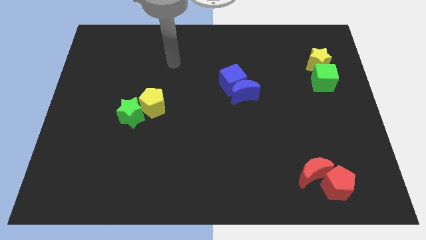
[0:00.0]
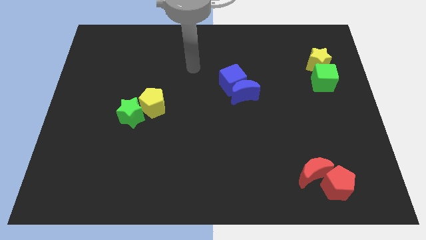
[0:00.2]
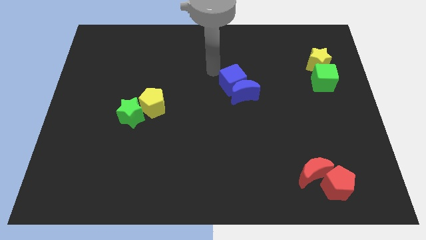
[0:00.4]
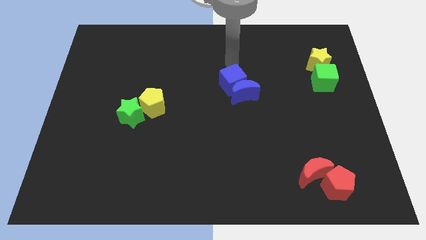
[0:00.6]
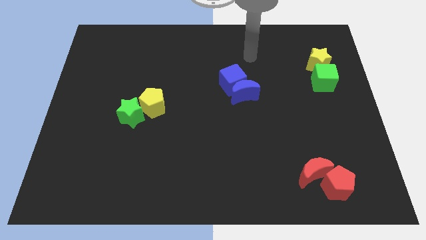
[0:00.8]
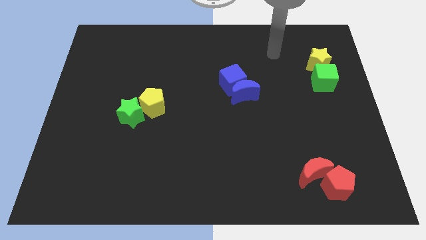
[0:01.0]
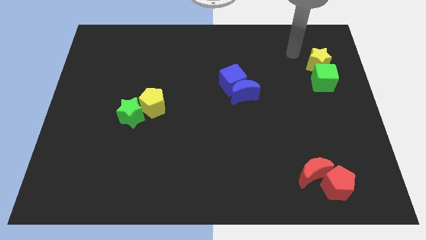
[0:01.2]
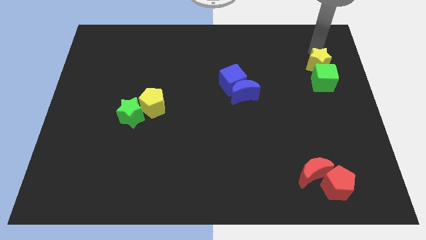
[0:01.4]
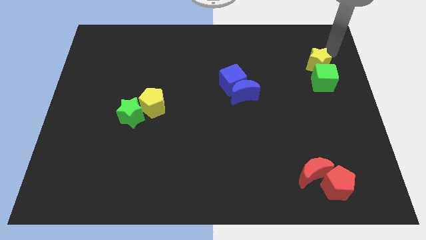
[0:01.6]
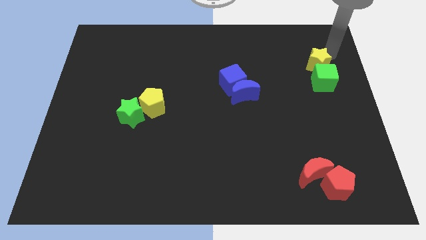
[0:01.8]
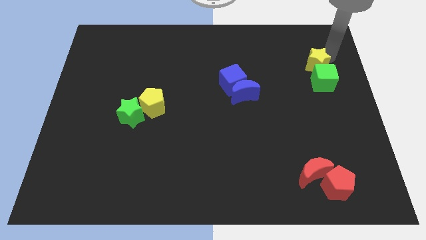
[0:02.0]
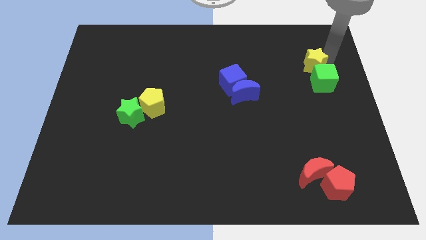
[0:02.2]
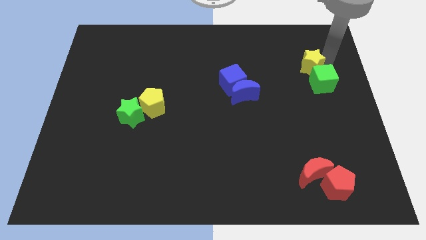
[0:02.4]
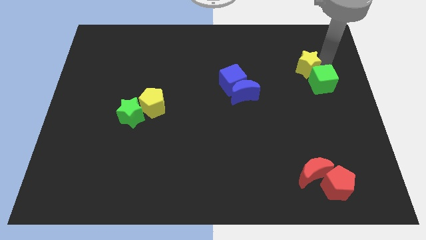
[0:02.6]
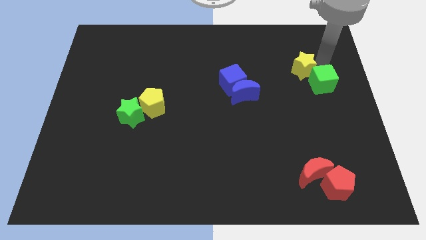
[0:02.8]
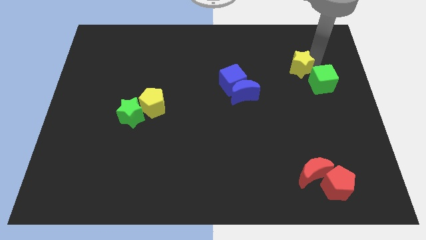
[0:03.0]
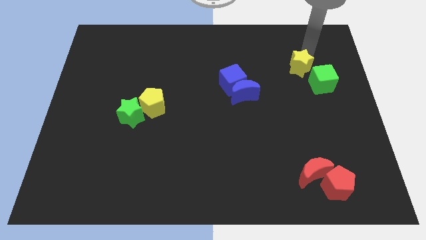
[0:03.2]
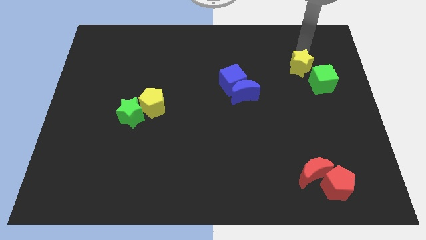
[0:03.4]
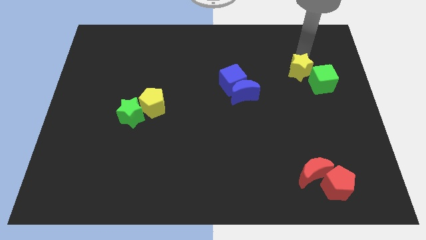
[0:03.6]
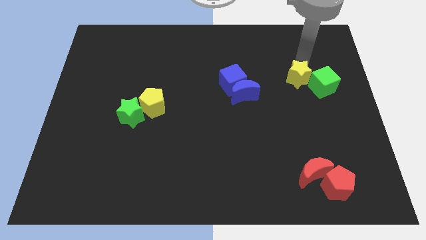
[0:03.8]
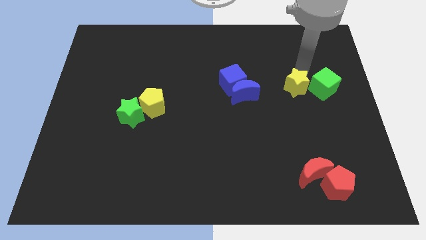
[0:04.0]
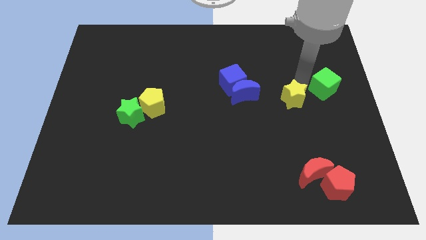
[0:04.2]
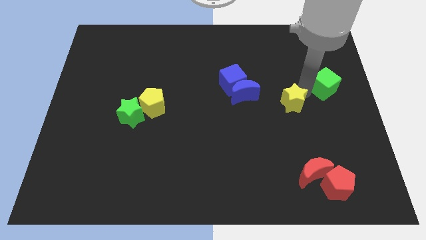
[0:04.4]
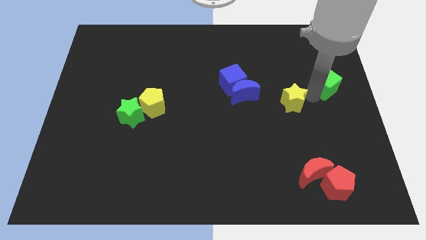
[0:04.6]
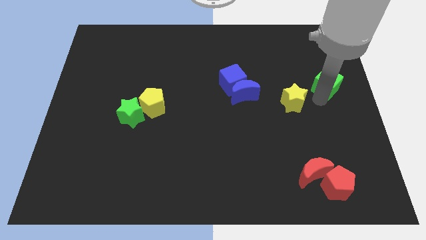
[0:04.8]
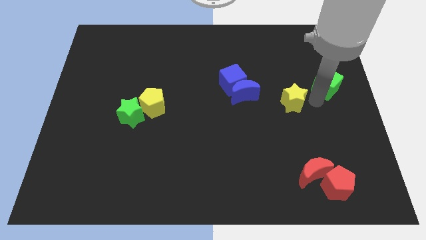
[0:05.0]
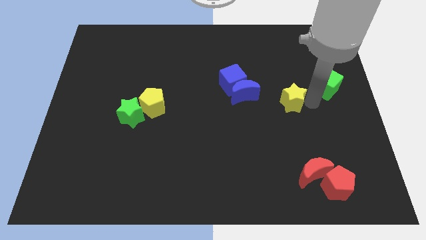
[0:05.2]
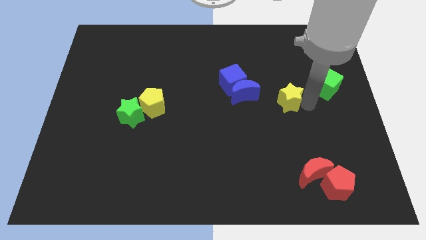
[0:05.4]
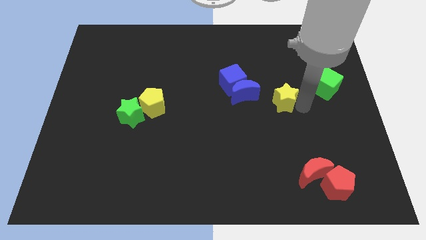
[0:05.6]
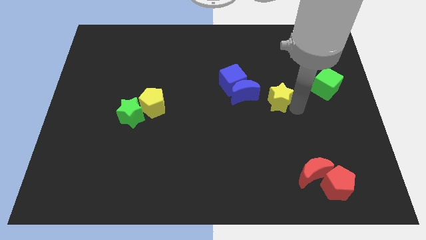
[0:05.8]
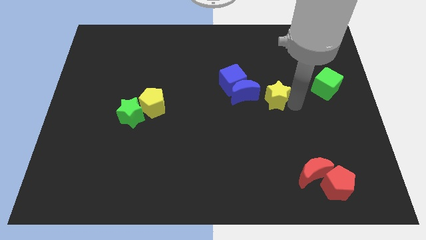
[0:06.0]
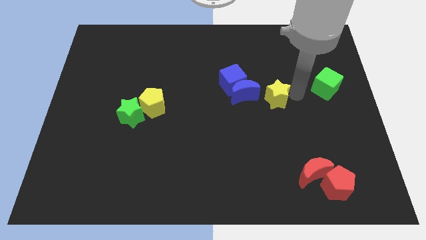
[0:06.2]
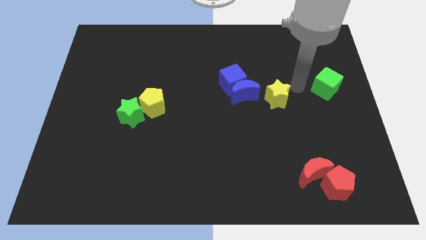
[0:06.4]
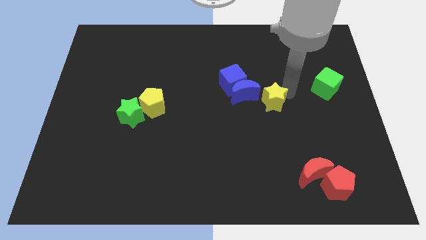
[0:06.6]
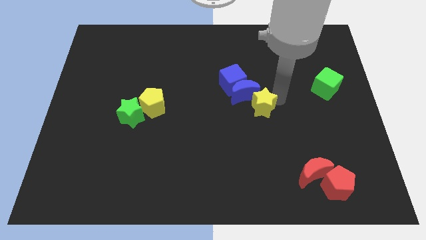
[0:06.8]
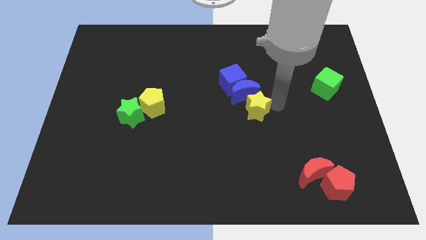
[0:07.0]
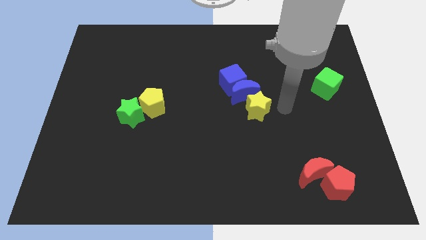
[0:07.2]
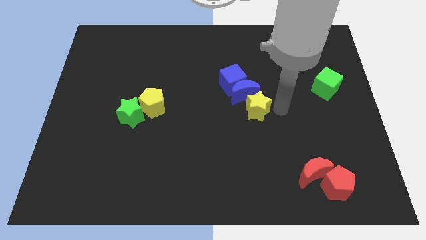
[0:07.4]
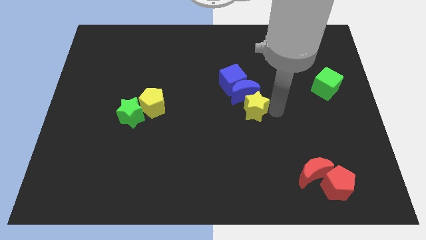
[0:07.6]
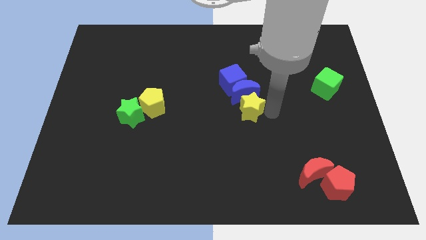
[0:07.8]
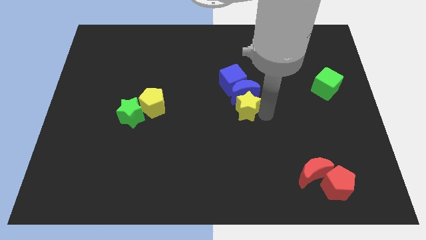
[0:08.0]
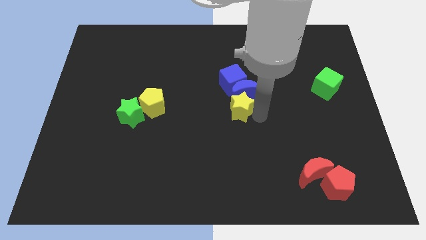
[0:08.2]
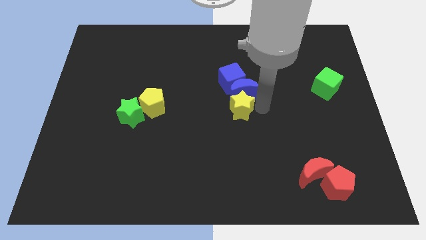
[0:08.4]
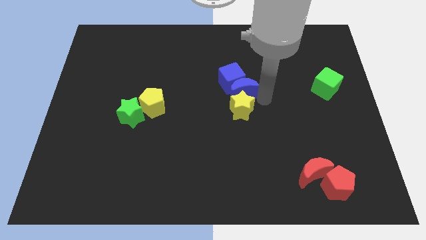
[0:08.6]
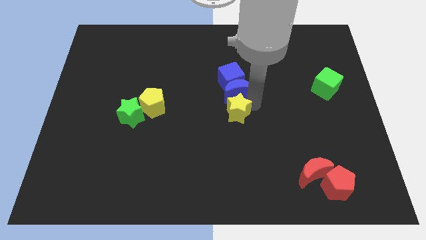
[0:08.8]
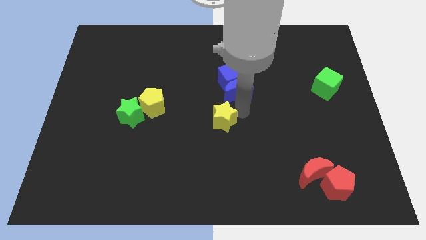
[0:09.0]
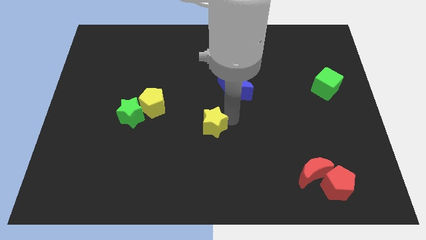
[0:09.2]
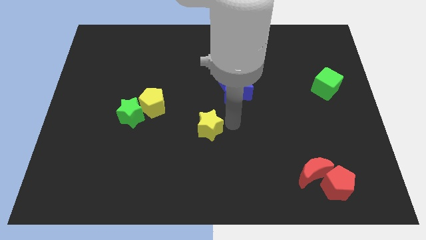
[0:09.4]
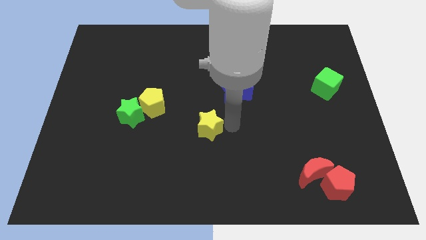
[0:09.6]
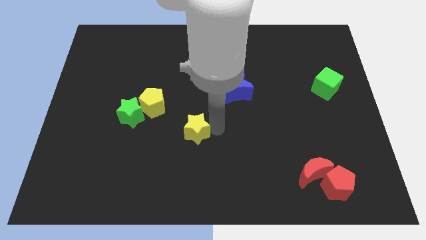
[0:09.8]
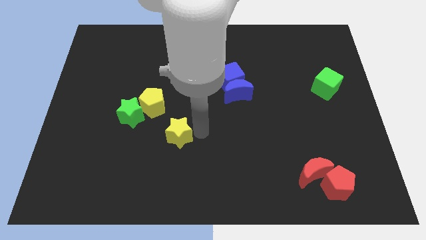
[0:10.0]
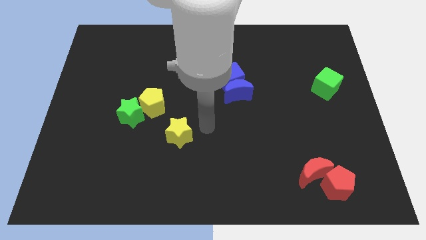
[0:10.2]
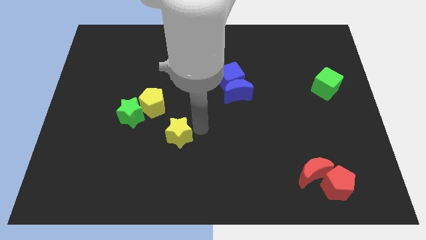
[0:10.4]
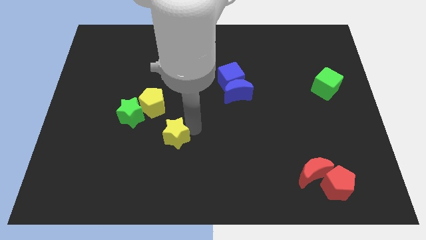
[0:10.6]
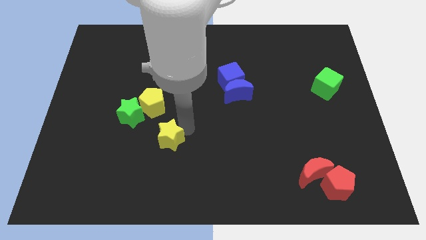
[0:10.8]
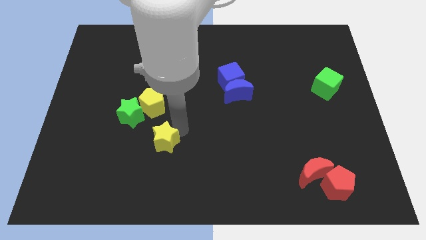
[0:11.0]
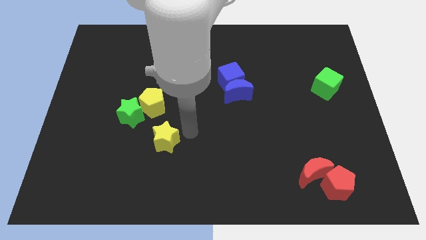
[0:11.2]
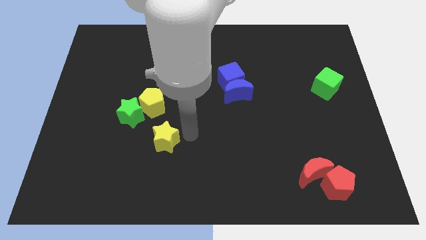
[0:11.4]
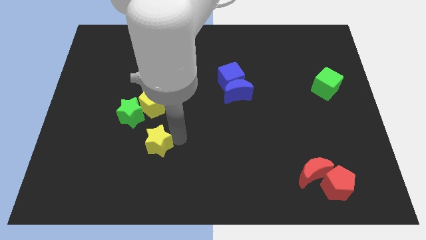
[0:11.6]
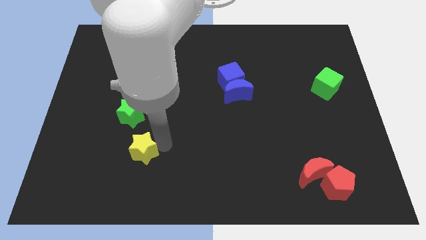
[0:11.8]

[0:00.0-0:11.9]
move the yellow star to the bottom side of the green star

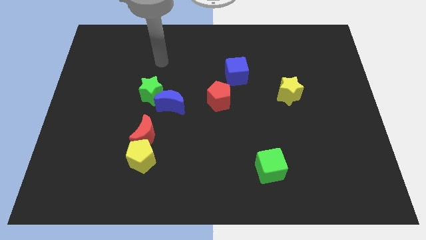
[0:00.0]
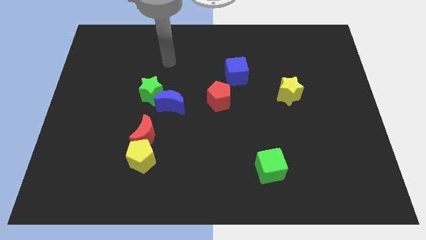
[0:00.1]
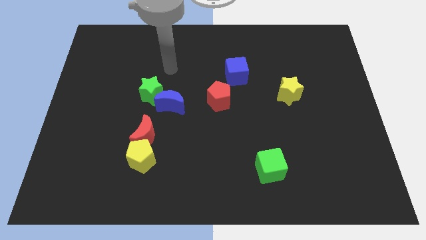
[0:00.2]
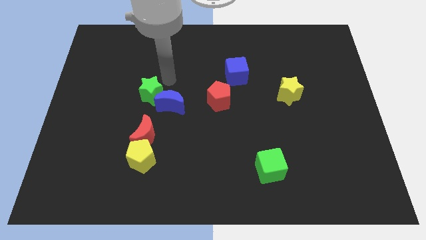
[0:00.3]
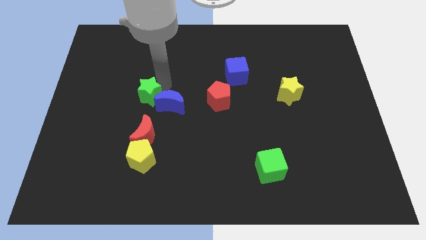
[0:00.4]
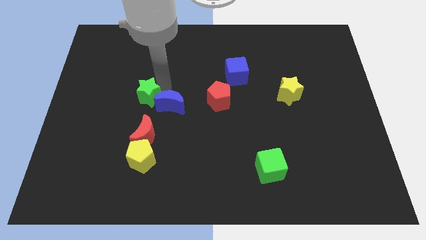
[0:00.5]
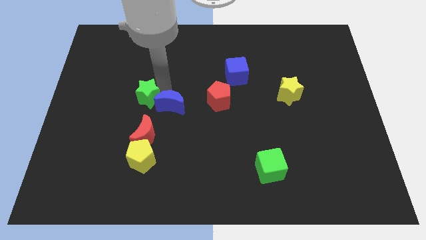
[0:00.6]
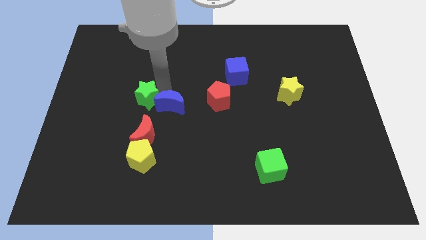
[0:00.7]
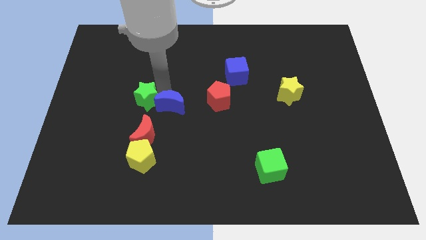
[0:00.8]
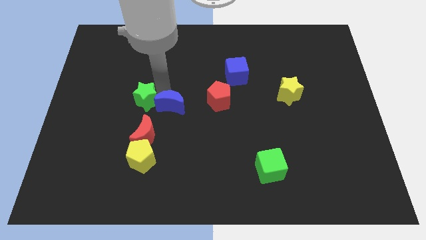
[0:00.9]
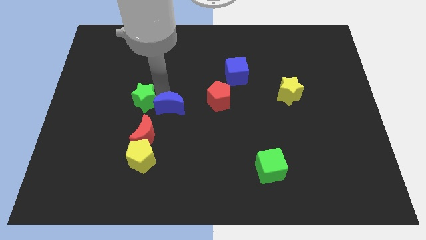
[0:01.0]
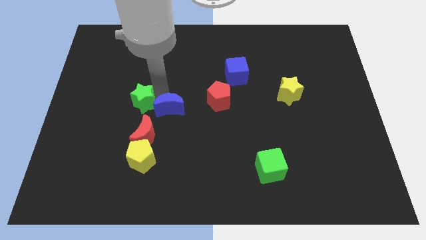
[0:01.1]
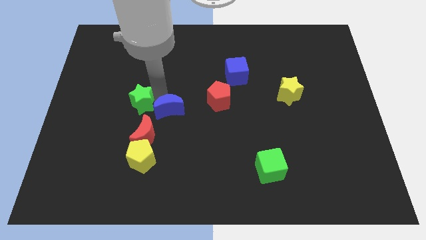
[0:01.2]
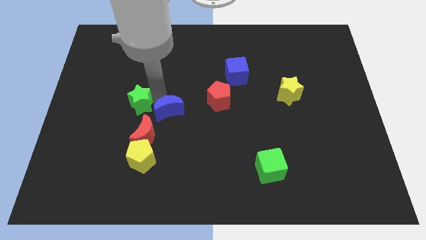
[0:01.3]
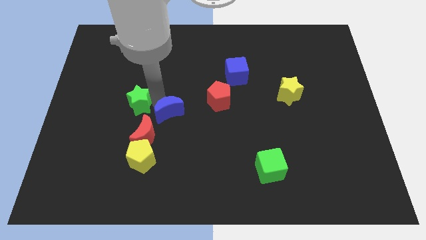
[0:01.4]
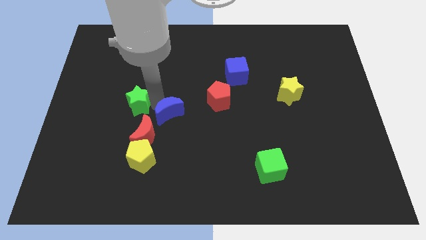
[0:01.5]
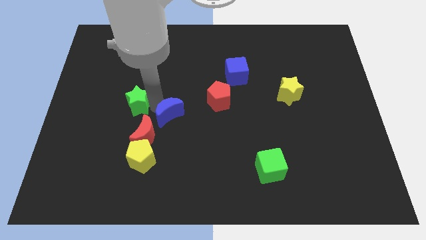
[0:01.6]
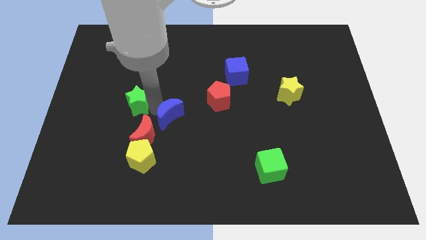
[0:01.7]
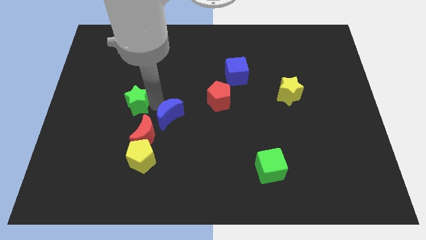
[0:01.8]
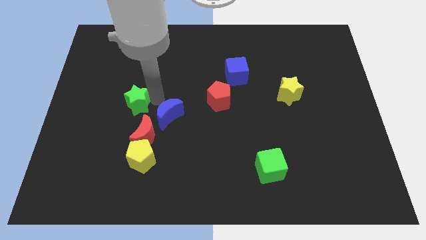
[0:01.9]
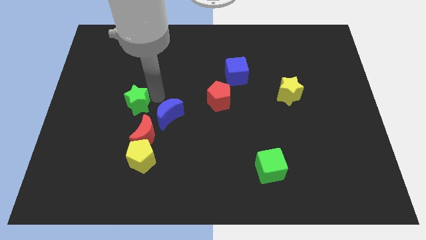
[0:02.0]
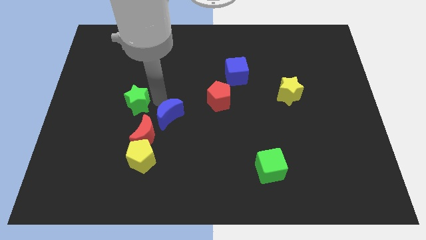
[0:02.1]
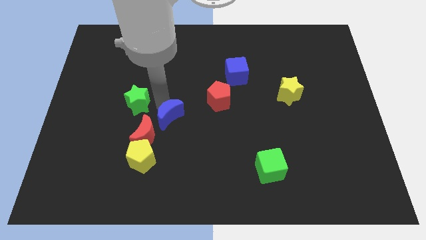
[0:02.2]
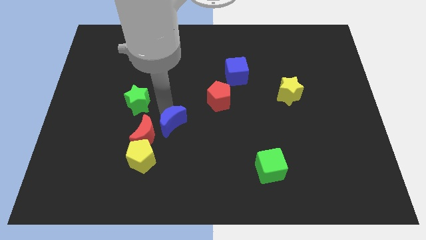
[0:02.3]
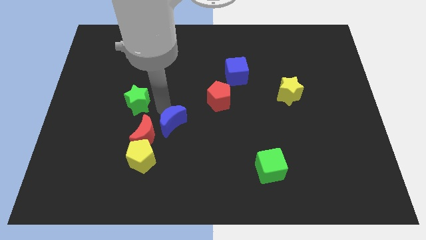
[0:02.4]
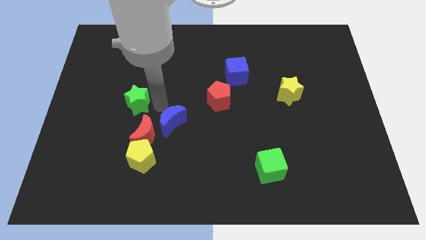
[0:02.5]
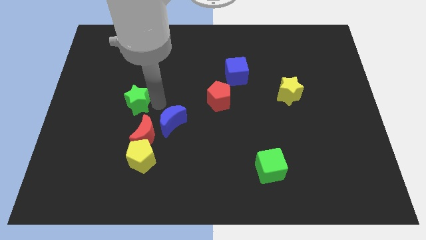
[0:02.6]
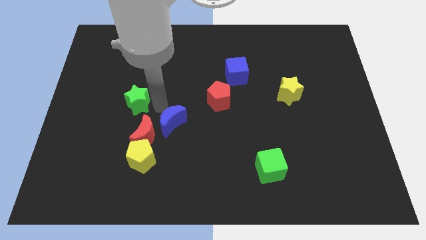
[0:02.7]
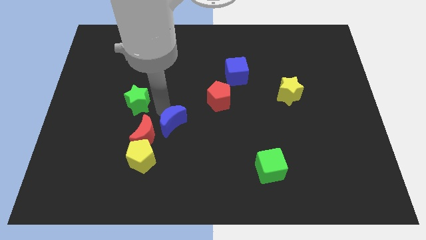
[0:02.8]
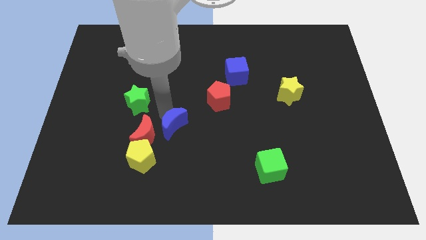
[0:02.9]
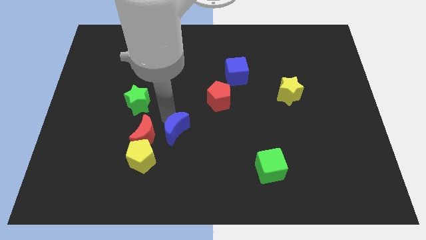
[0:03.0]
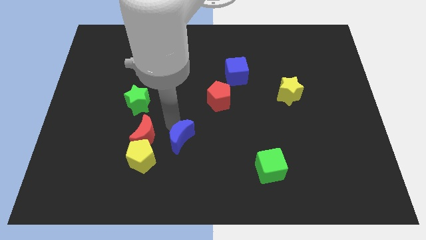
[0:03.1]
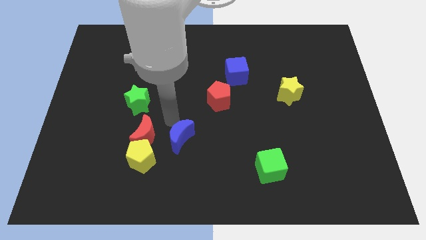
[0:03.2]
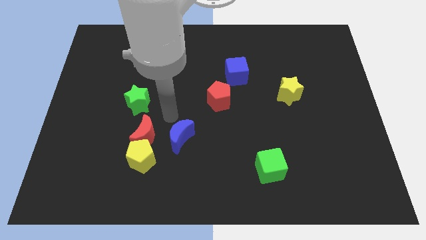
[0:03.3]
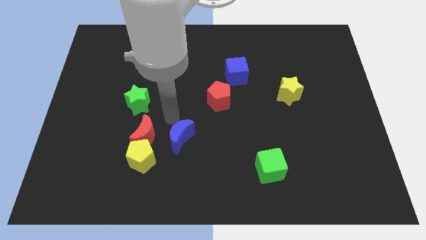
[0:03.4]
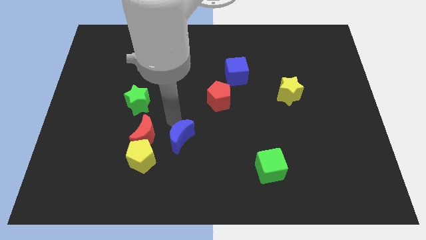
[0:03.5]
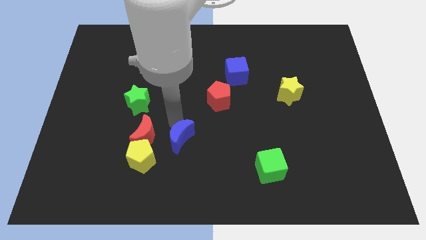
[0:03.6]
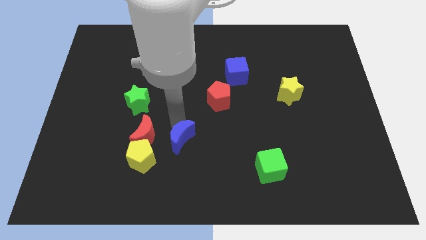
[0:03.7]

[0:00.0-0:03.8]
push the blue moon to the right of the yellow pentagon
